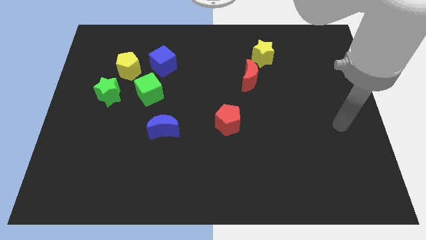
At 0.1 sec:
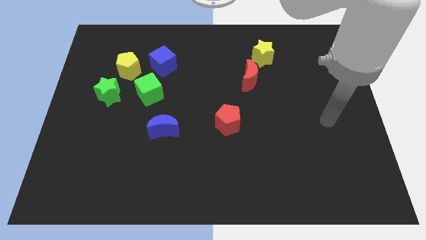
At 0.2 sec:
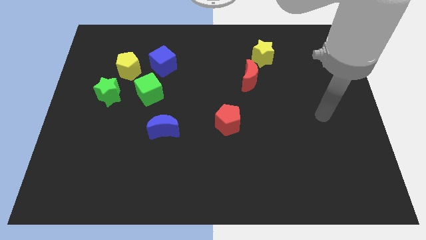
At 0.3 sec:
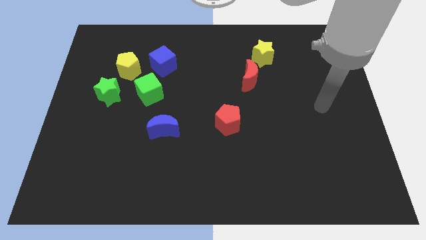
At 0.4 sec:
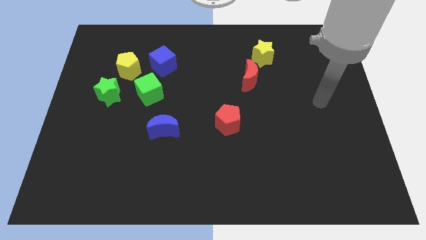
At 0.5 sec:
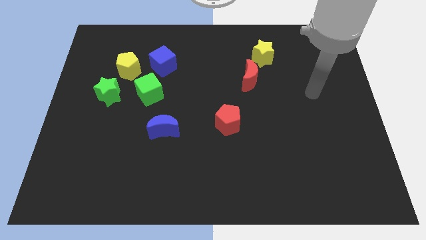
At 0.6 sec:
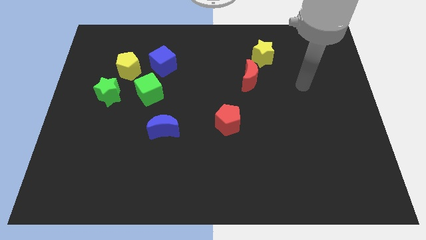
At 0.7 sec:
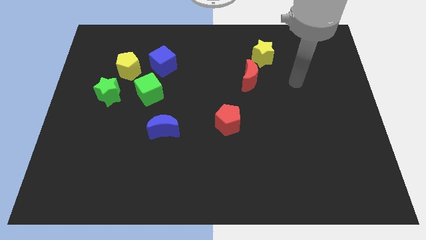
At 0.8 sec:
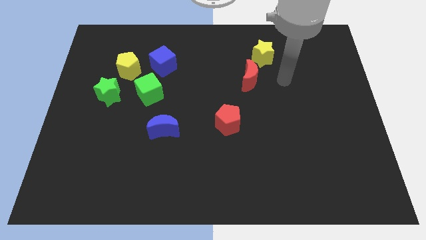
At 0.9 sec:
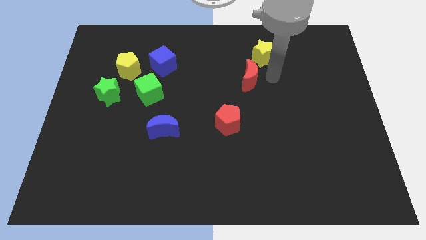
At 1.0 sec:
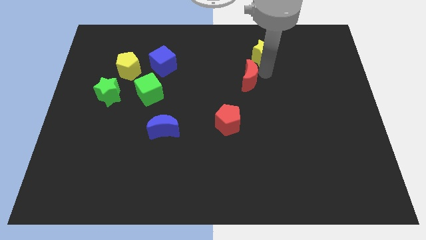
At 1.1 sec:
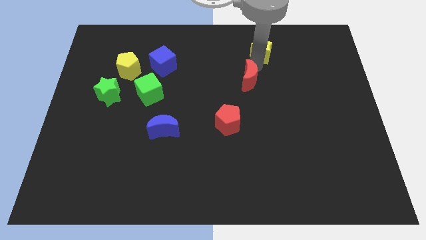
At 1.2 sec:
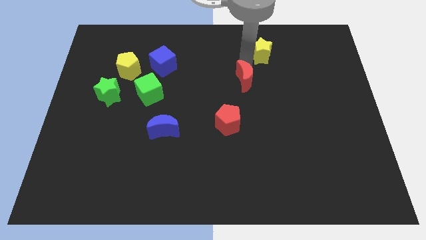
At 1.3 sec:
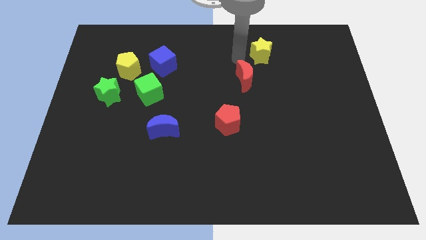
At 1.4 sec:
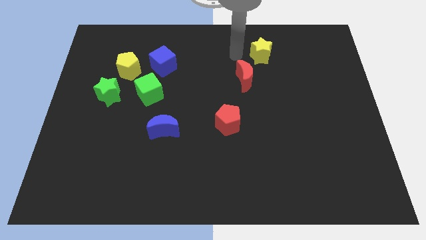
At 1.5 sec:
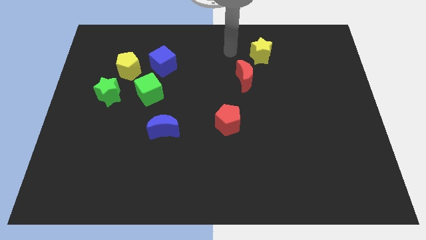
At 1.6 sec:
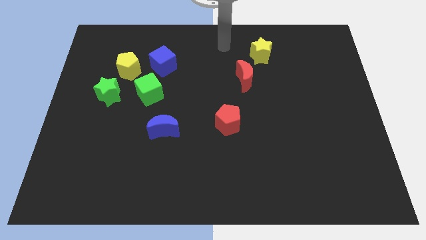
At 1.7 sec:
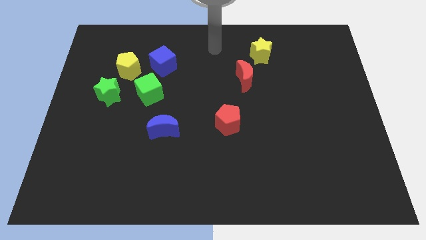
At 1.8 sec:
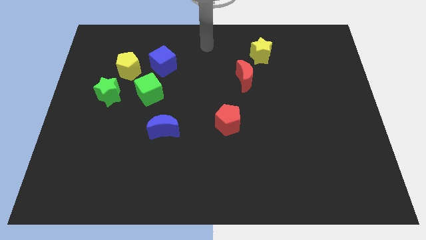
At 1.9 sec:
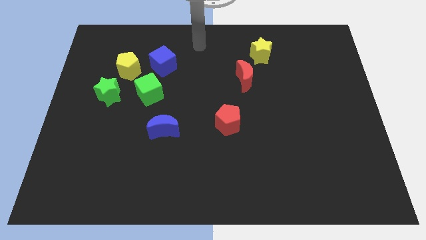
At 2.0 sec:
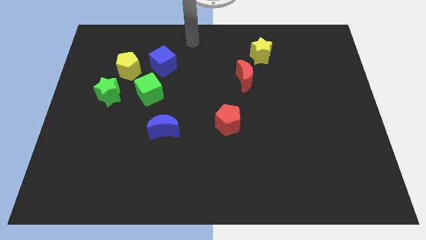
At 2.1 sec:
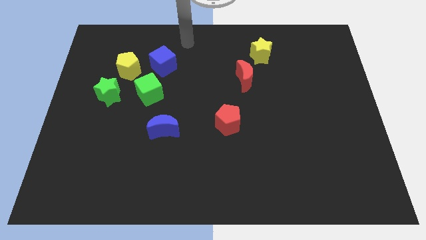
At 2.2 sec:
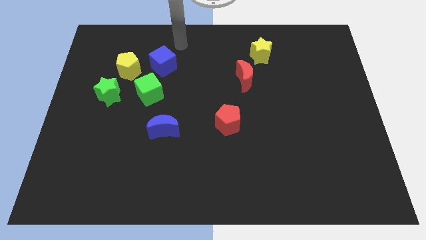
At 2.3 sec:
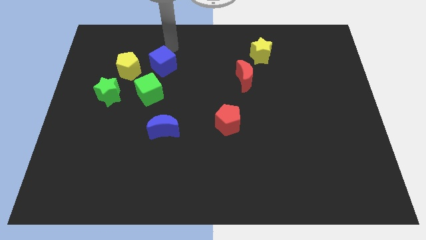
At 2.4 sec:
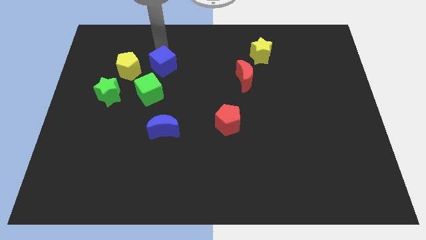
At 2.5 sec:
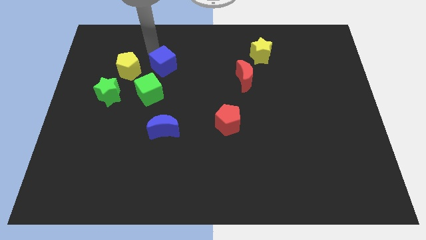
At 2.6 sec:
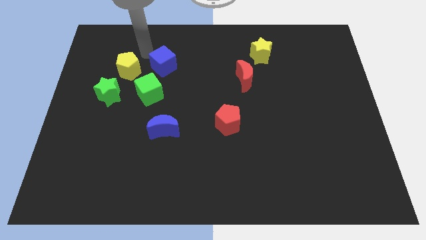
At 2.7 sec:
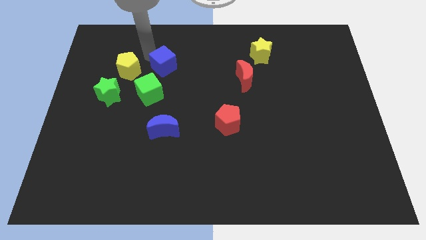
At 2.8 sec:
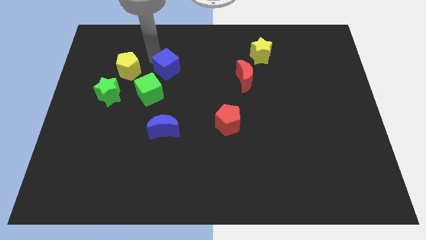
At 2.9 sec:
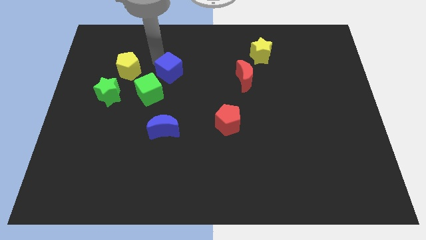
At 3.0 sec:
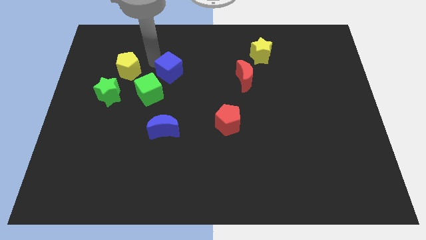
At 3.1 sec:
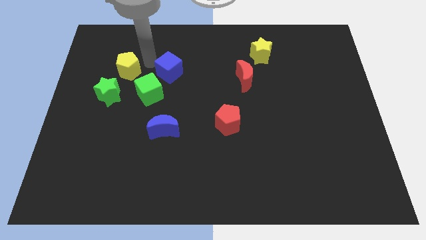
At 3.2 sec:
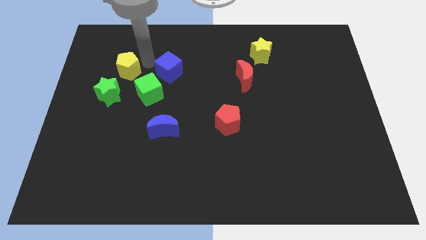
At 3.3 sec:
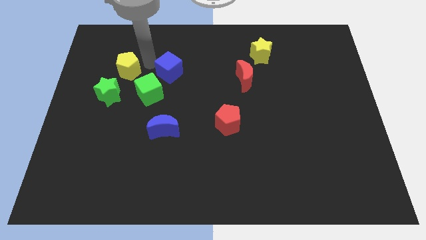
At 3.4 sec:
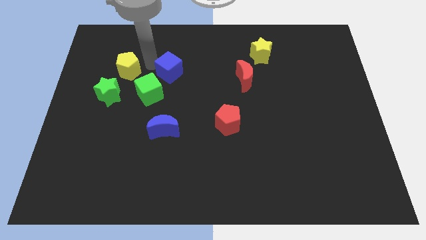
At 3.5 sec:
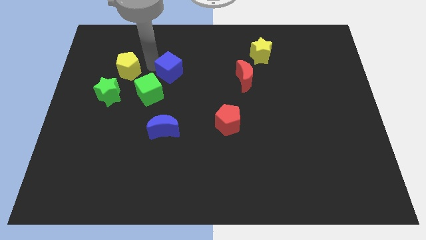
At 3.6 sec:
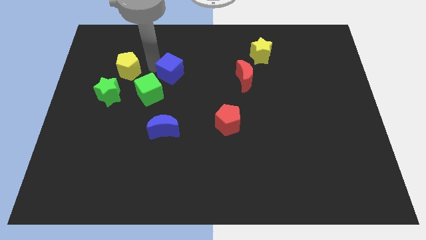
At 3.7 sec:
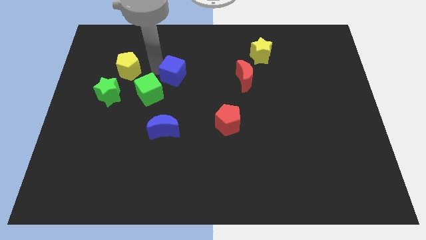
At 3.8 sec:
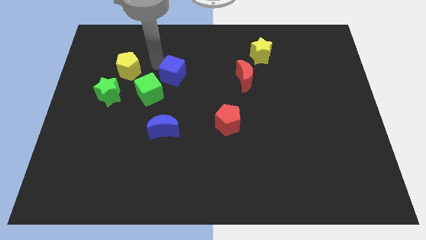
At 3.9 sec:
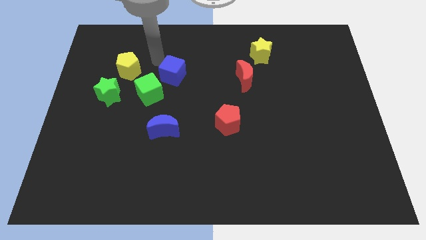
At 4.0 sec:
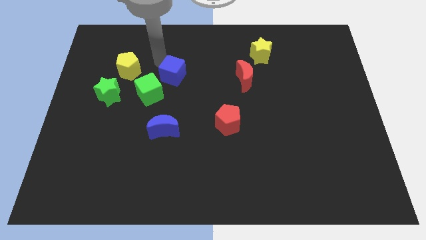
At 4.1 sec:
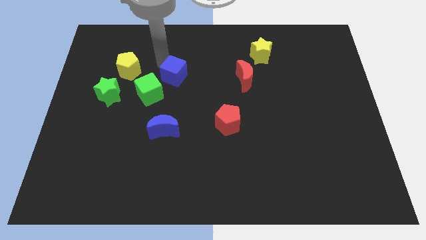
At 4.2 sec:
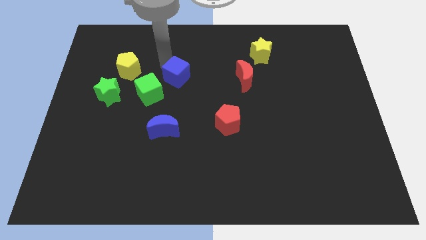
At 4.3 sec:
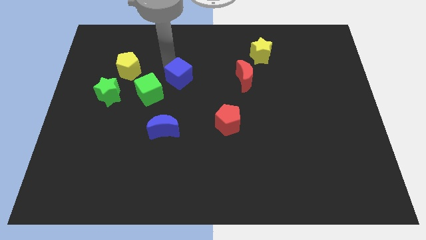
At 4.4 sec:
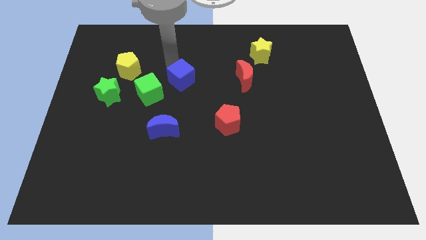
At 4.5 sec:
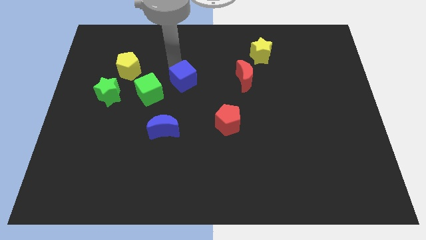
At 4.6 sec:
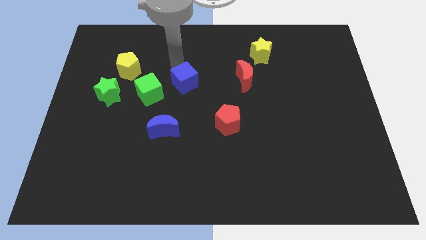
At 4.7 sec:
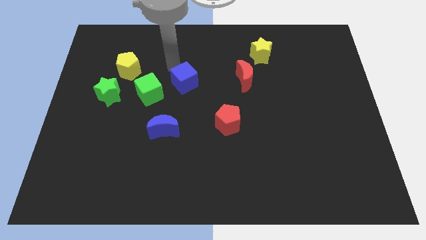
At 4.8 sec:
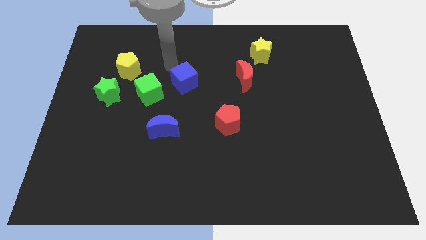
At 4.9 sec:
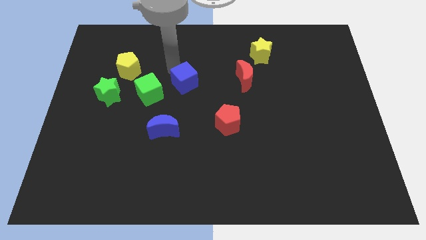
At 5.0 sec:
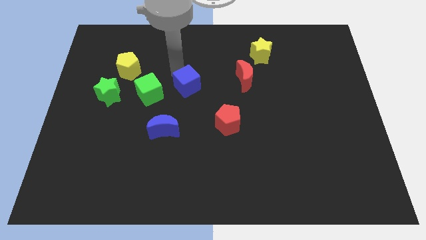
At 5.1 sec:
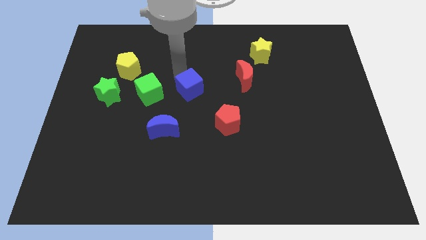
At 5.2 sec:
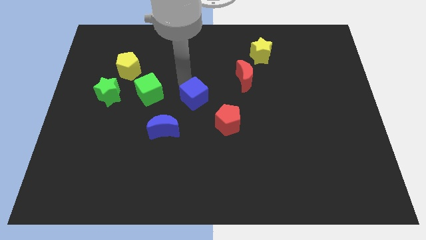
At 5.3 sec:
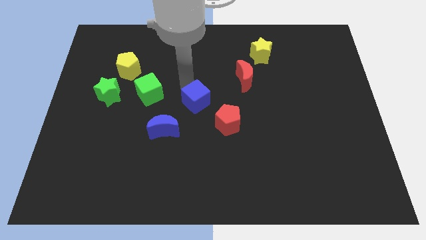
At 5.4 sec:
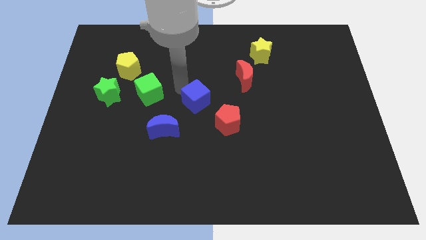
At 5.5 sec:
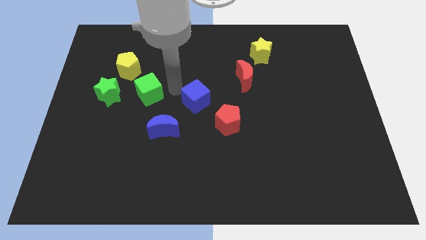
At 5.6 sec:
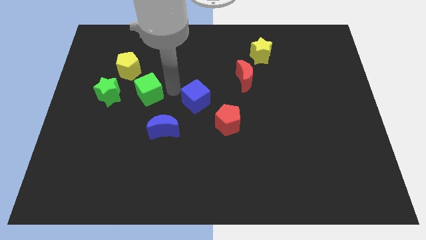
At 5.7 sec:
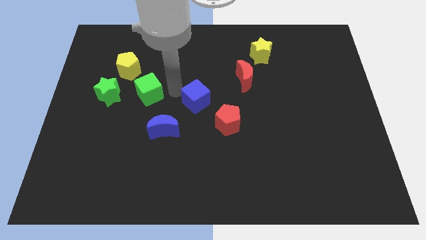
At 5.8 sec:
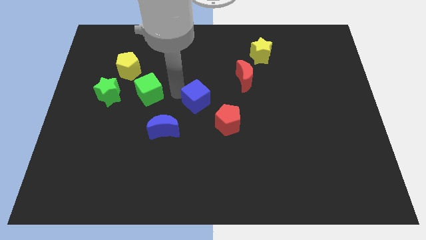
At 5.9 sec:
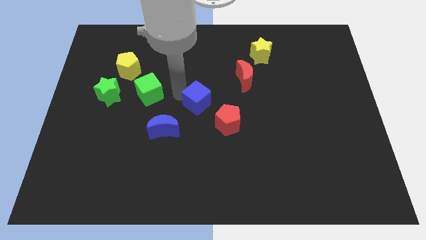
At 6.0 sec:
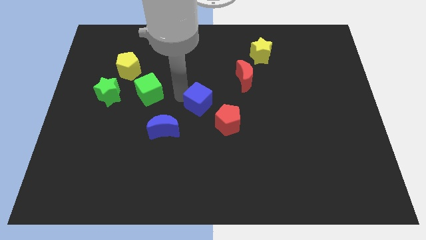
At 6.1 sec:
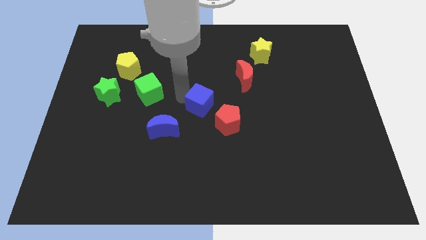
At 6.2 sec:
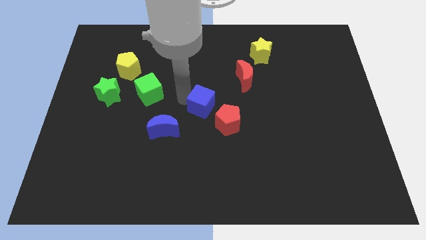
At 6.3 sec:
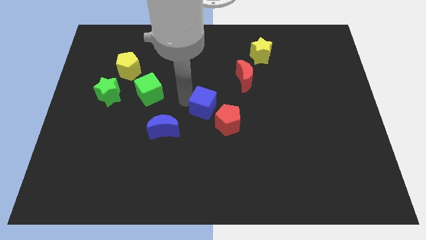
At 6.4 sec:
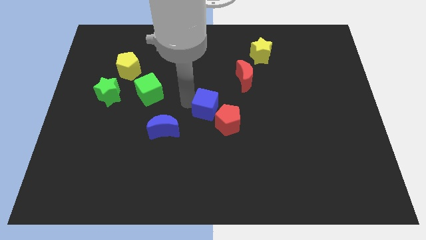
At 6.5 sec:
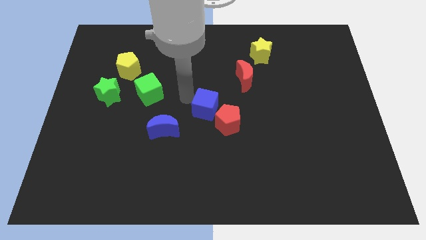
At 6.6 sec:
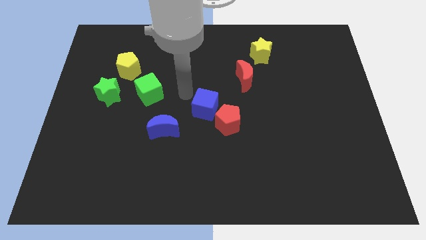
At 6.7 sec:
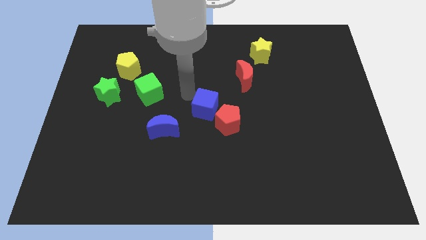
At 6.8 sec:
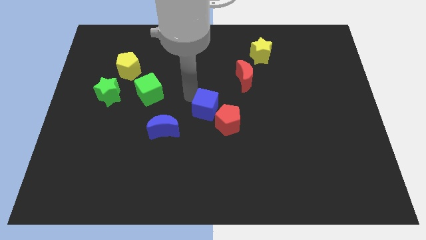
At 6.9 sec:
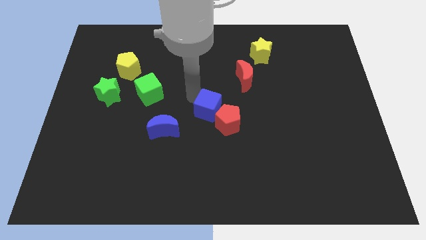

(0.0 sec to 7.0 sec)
slide the blue cube close to the red pentagon
